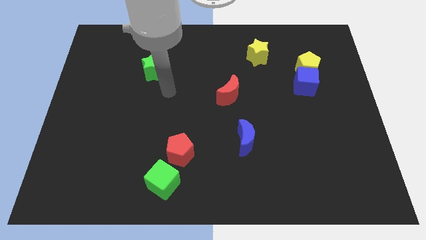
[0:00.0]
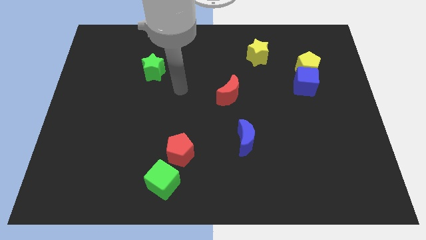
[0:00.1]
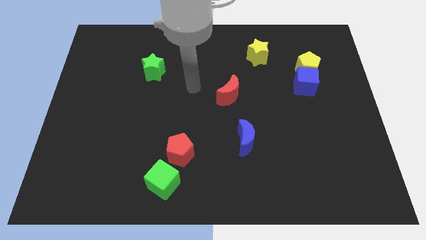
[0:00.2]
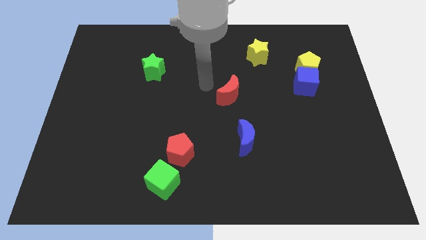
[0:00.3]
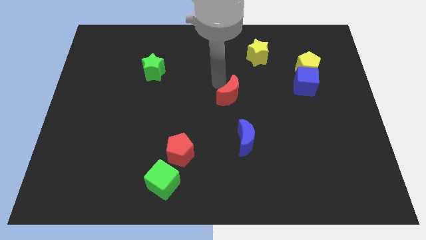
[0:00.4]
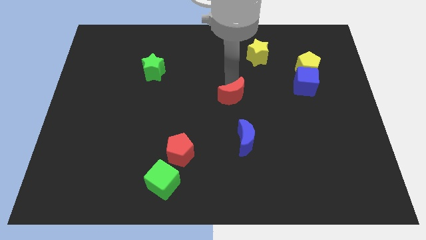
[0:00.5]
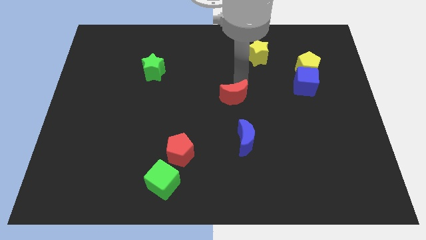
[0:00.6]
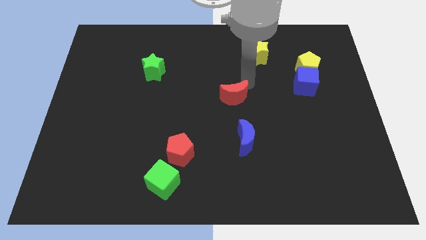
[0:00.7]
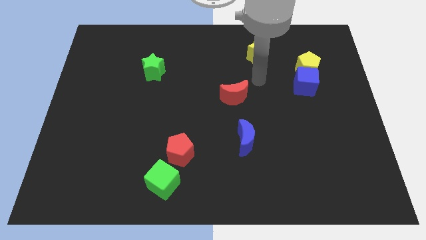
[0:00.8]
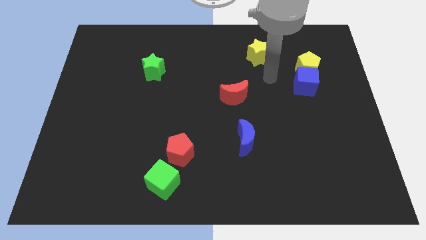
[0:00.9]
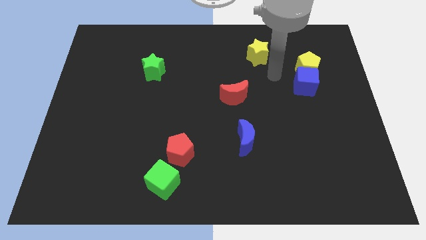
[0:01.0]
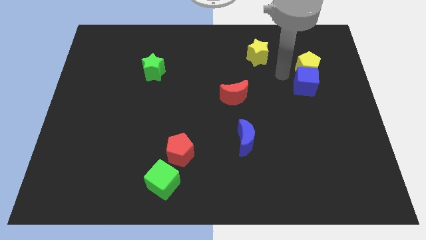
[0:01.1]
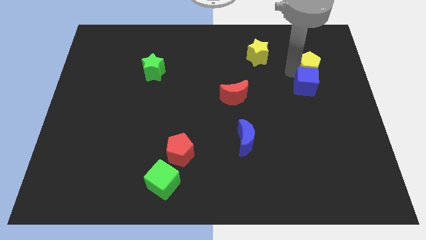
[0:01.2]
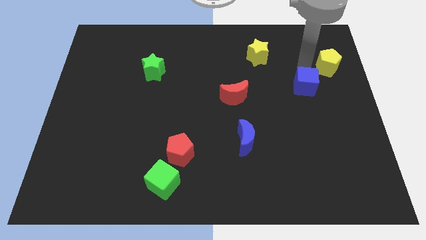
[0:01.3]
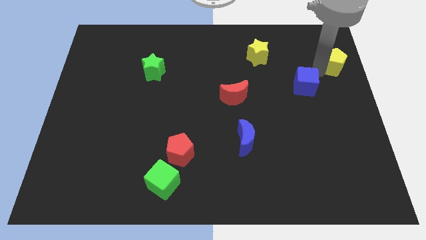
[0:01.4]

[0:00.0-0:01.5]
move the blue cube away from the yellow pentagon

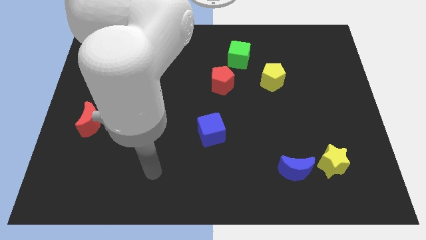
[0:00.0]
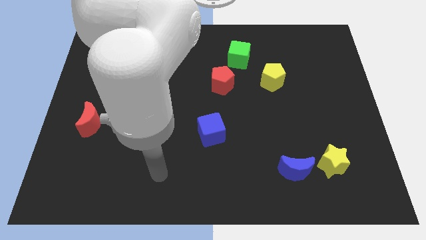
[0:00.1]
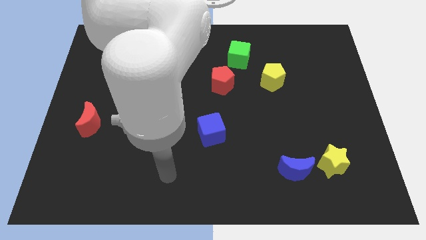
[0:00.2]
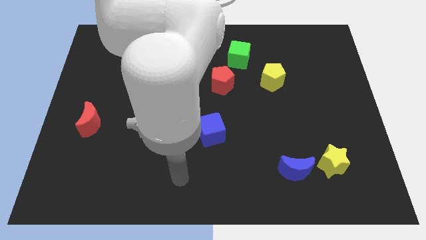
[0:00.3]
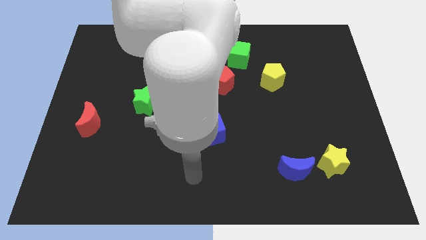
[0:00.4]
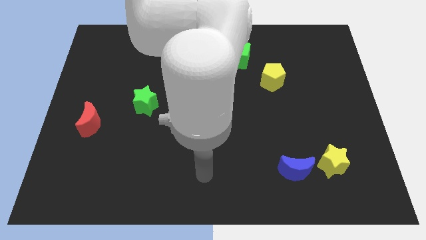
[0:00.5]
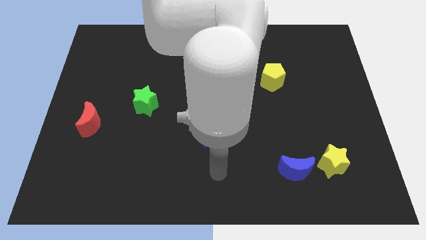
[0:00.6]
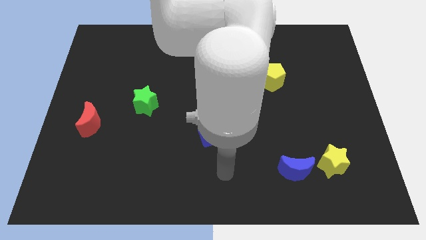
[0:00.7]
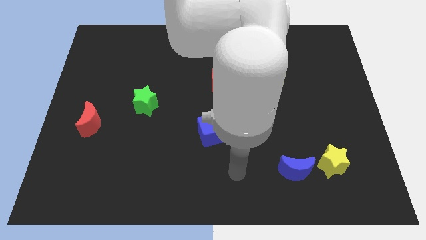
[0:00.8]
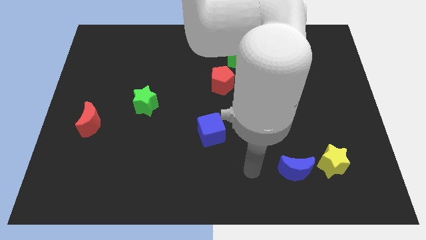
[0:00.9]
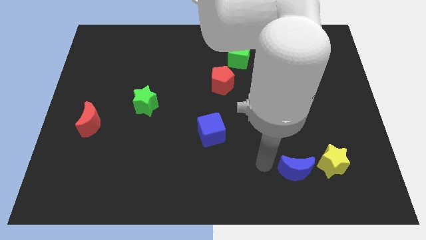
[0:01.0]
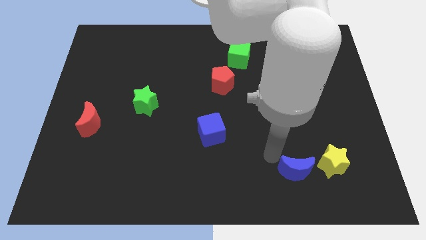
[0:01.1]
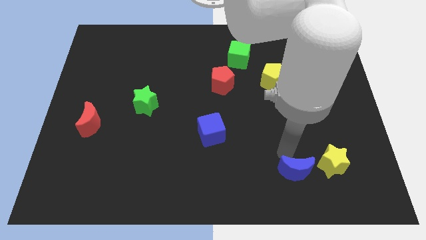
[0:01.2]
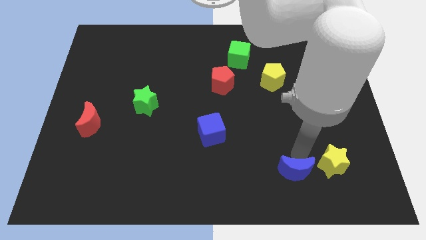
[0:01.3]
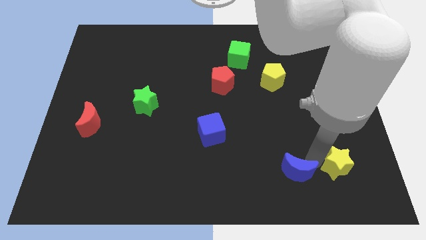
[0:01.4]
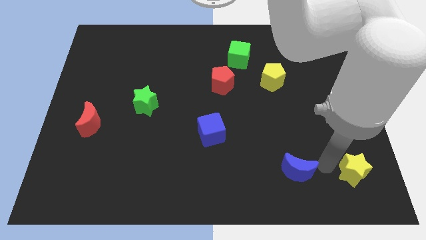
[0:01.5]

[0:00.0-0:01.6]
separate the blue moon from the yellow star

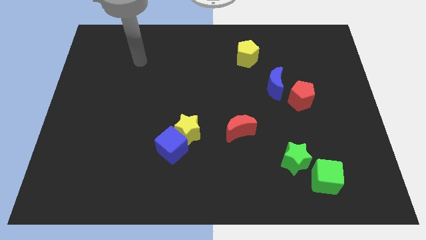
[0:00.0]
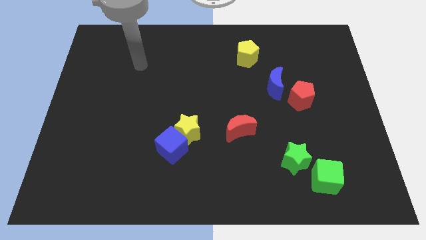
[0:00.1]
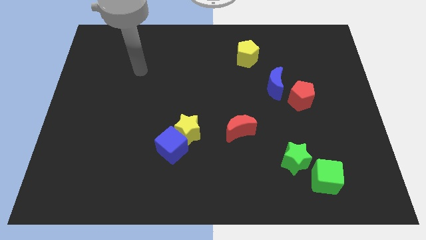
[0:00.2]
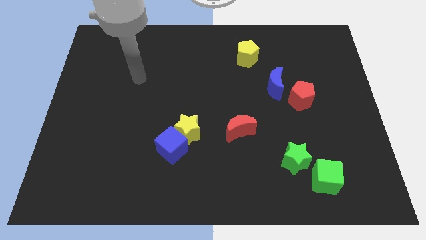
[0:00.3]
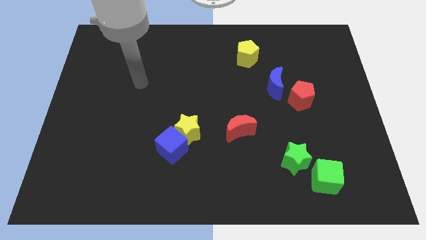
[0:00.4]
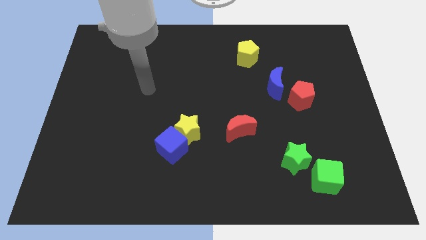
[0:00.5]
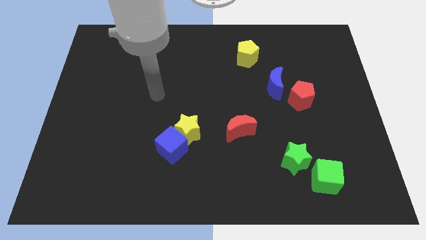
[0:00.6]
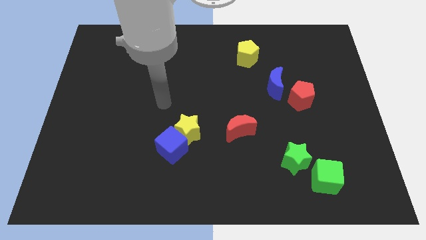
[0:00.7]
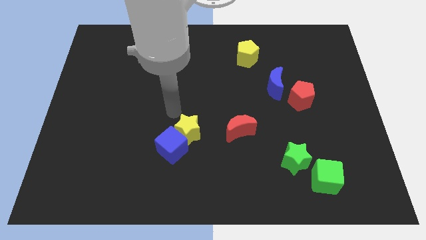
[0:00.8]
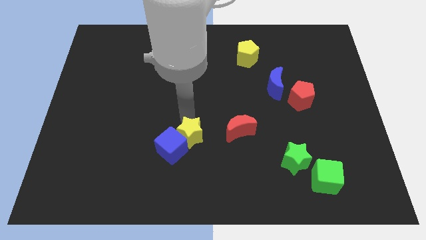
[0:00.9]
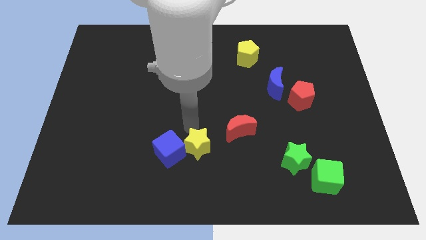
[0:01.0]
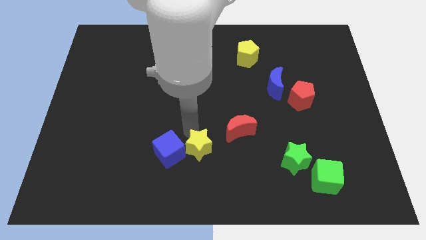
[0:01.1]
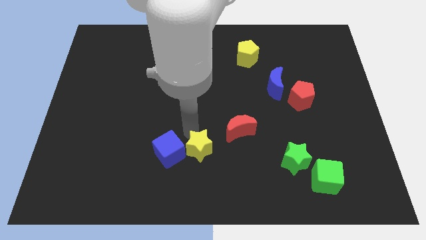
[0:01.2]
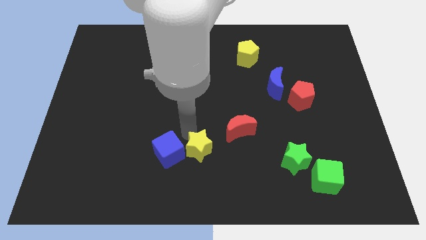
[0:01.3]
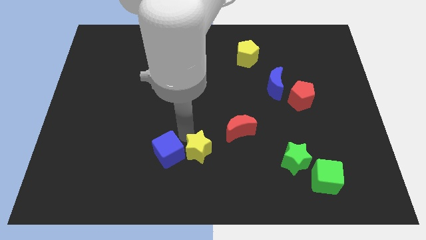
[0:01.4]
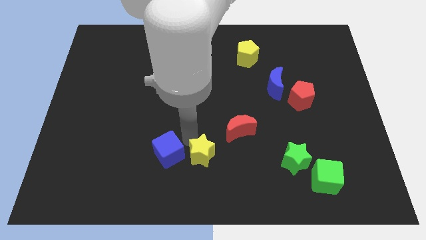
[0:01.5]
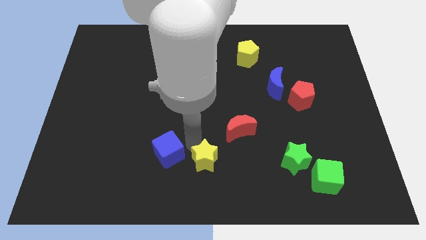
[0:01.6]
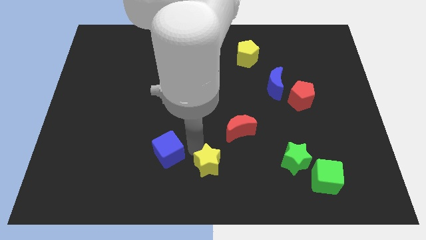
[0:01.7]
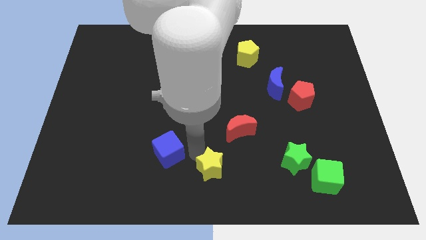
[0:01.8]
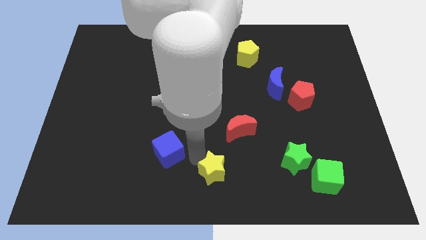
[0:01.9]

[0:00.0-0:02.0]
move the blue cube away from the yellow star

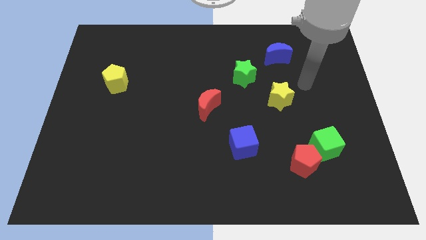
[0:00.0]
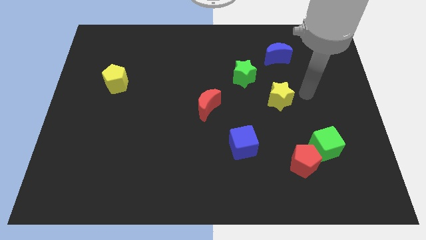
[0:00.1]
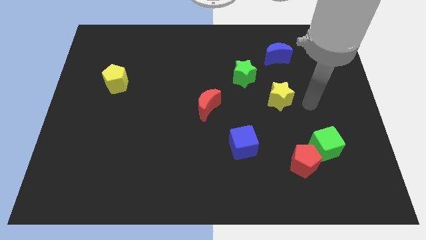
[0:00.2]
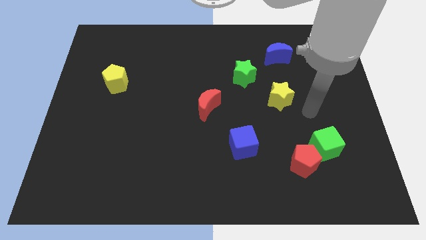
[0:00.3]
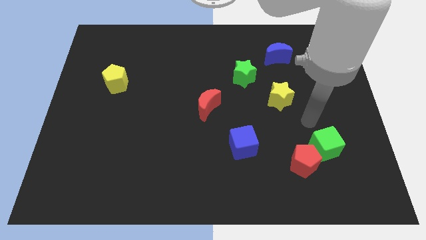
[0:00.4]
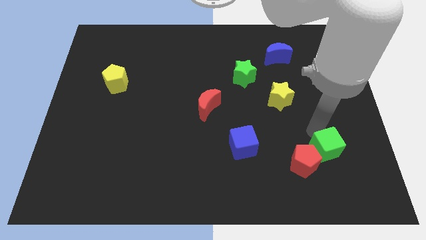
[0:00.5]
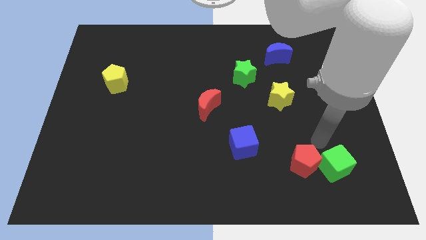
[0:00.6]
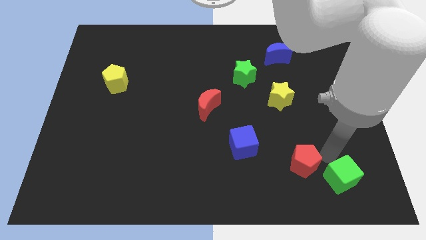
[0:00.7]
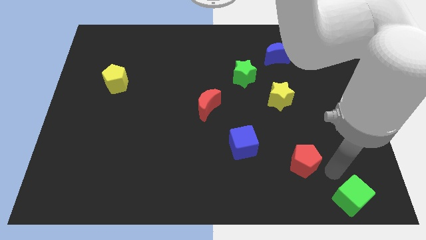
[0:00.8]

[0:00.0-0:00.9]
move the red pentagon away from the green cube

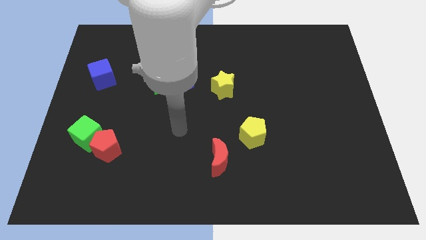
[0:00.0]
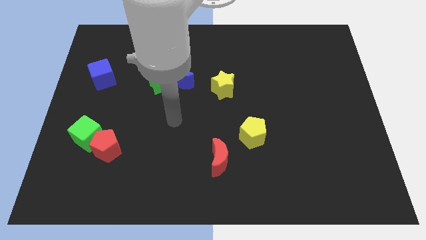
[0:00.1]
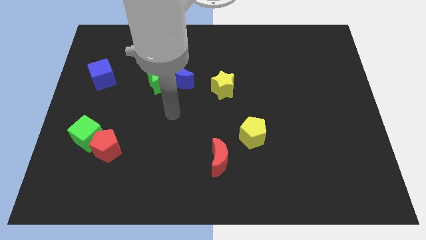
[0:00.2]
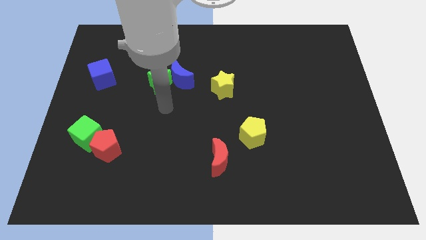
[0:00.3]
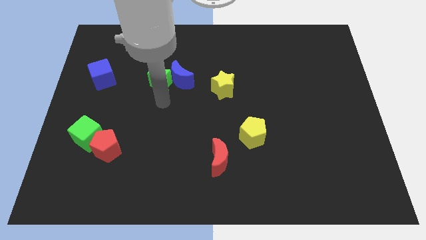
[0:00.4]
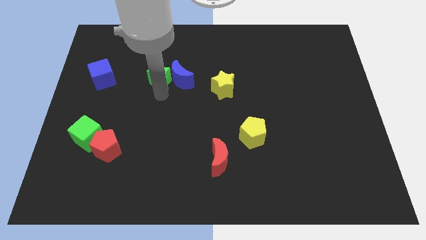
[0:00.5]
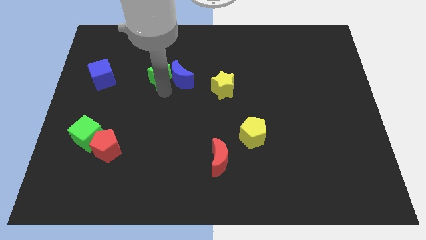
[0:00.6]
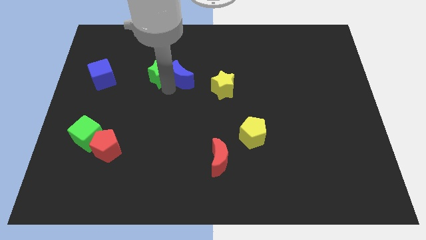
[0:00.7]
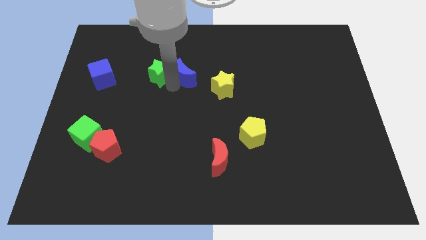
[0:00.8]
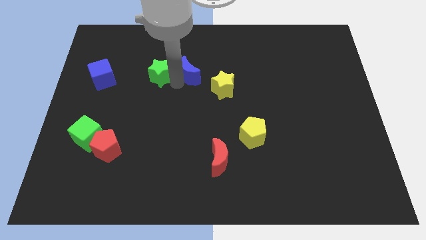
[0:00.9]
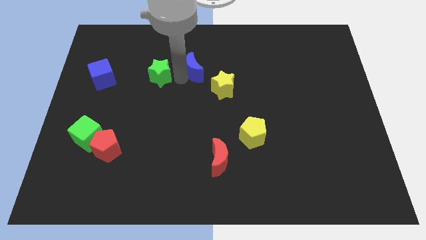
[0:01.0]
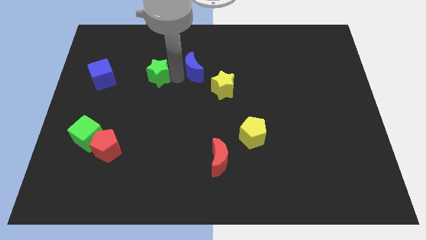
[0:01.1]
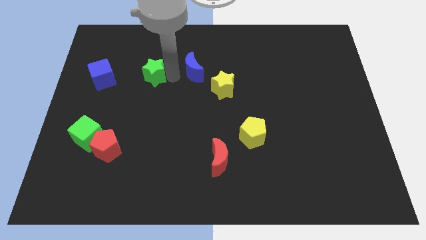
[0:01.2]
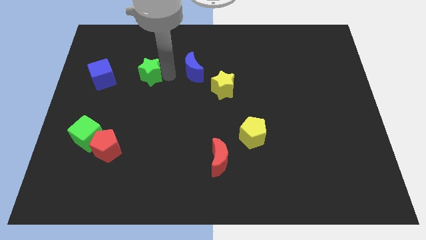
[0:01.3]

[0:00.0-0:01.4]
move the blue moon away from the green star

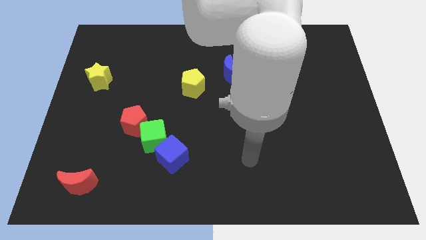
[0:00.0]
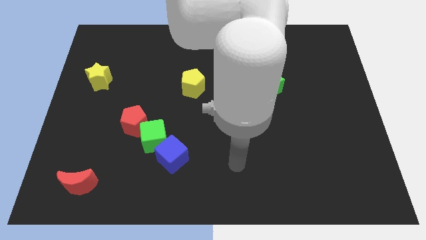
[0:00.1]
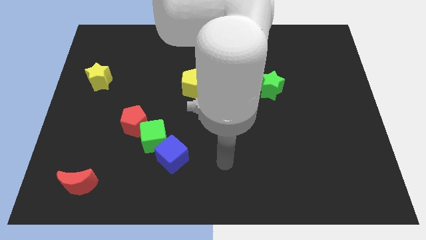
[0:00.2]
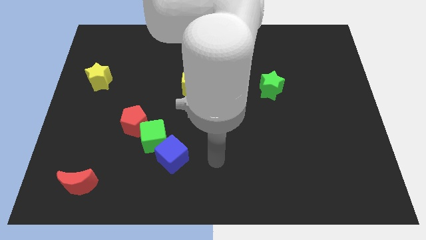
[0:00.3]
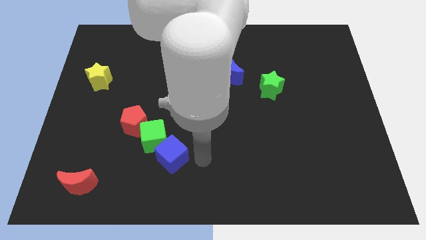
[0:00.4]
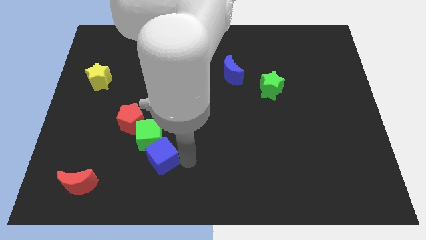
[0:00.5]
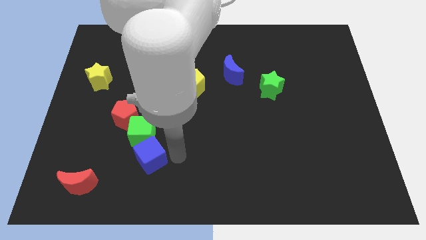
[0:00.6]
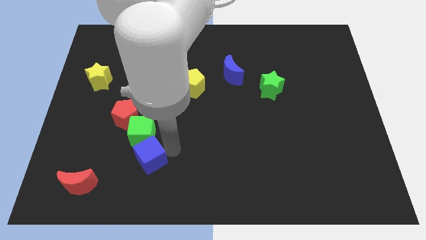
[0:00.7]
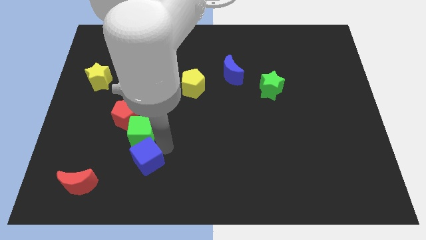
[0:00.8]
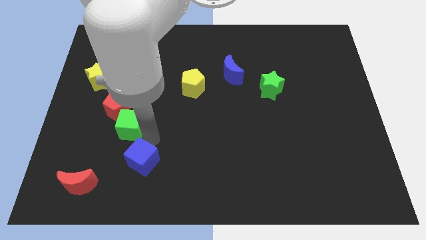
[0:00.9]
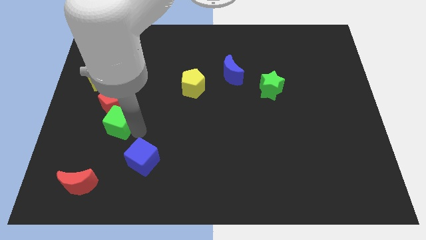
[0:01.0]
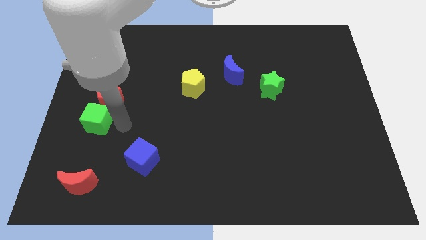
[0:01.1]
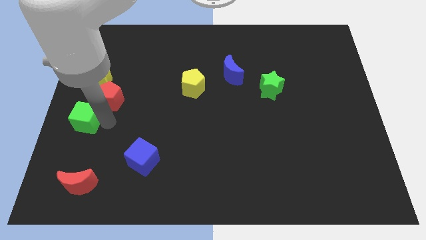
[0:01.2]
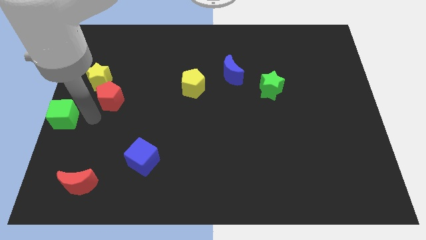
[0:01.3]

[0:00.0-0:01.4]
pull the red pentagon apart from the green cube

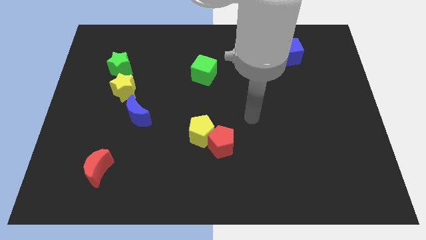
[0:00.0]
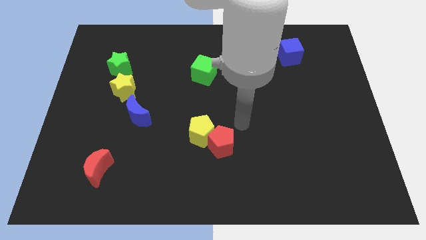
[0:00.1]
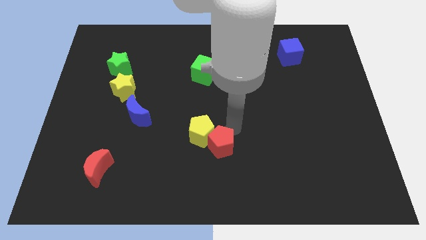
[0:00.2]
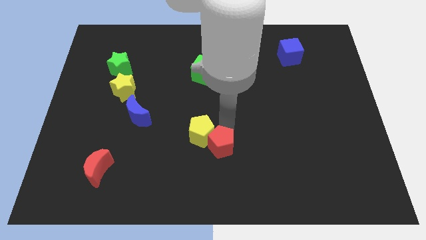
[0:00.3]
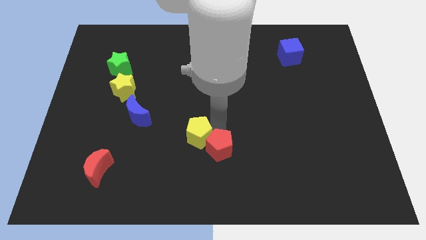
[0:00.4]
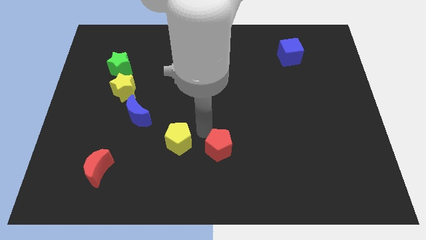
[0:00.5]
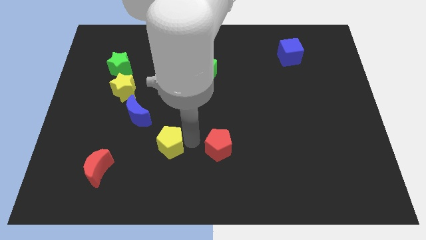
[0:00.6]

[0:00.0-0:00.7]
move the red pentagon away from the yellow pentagon
